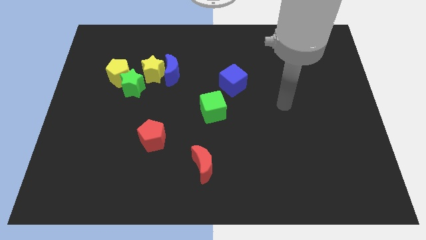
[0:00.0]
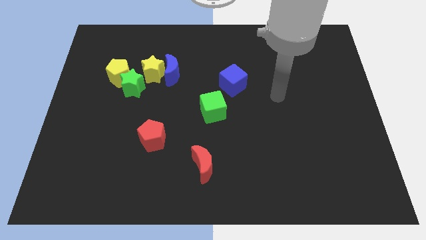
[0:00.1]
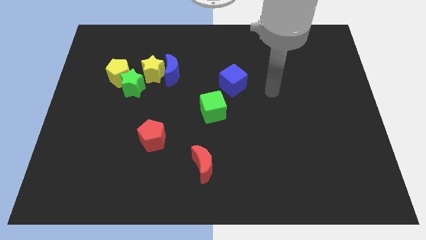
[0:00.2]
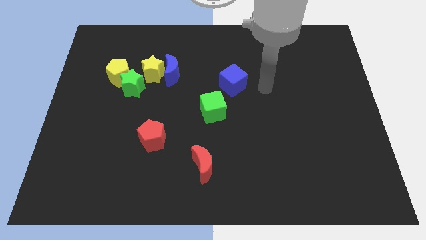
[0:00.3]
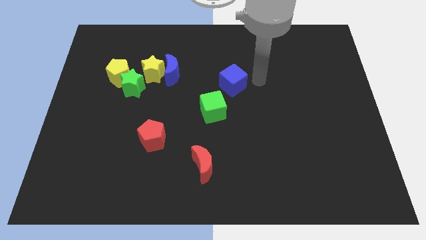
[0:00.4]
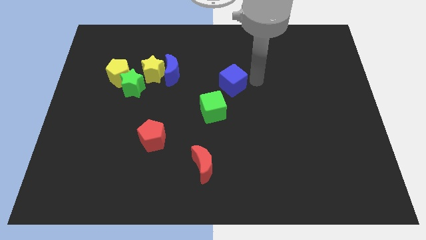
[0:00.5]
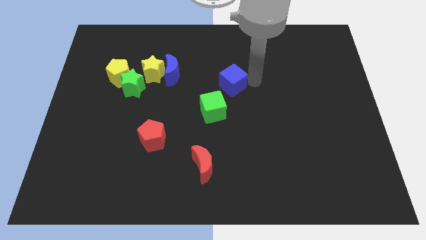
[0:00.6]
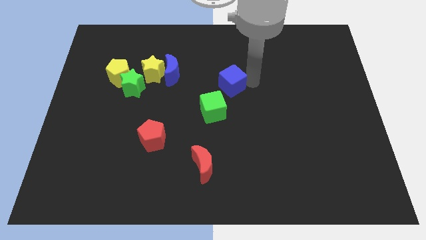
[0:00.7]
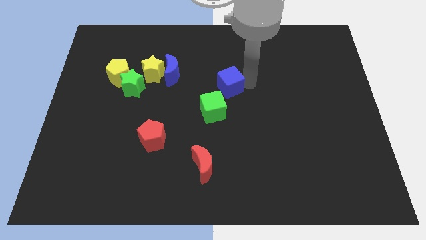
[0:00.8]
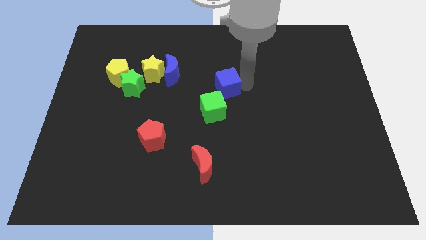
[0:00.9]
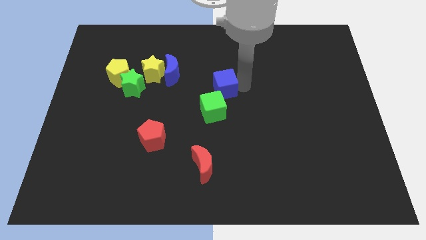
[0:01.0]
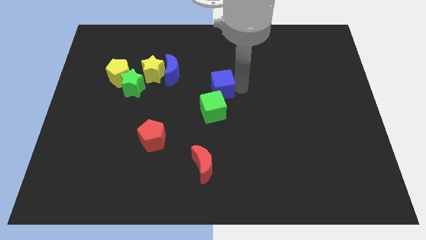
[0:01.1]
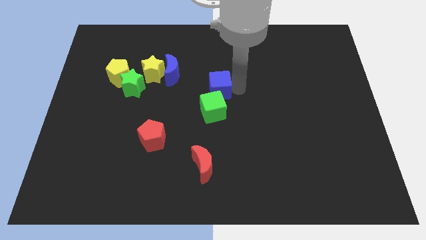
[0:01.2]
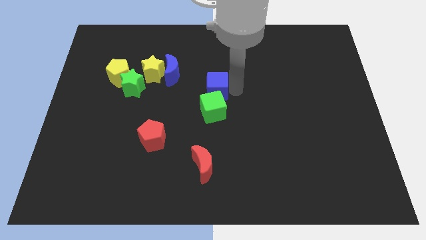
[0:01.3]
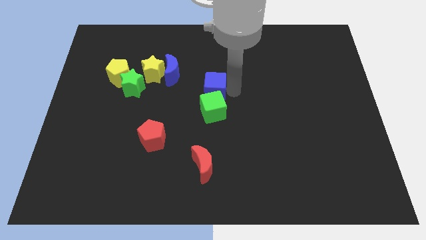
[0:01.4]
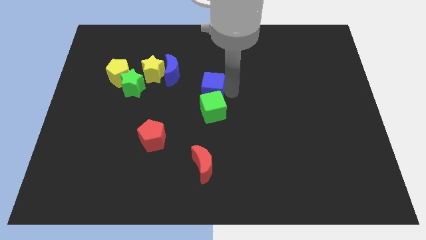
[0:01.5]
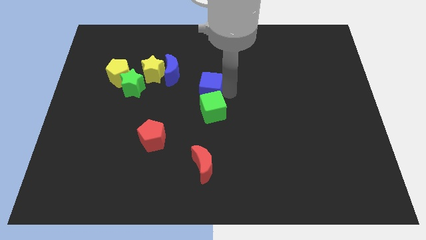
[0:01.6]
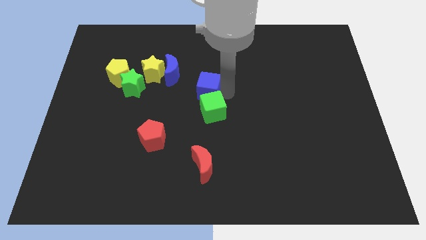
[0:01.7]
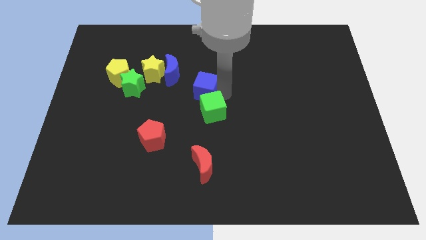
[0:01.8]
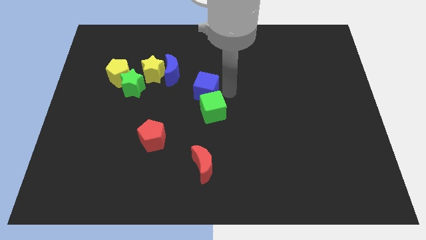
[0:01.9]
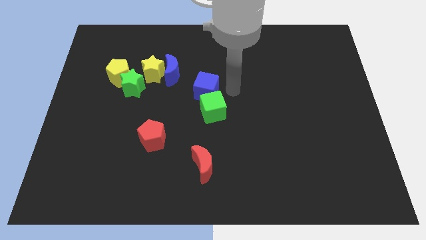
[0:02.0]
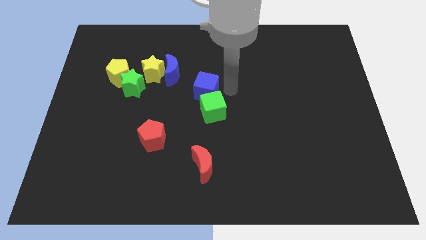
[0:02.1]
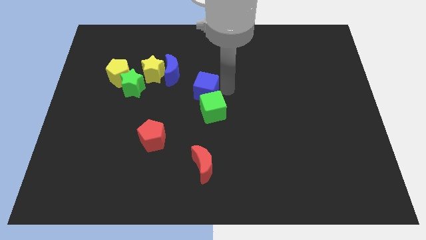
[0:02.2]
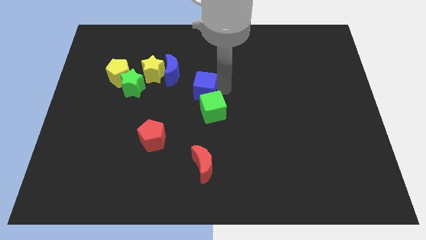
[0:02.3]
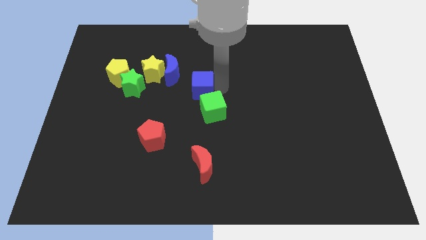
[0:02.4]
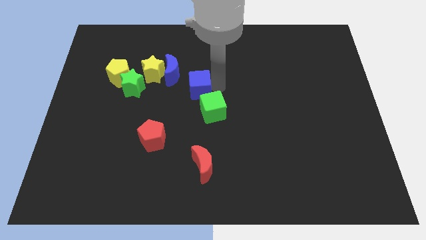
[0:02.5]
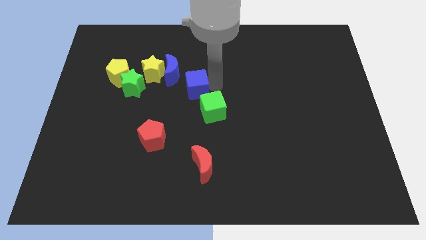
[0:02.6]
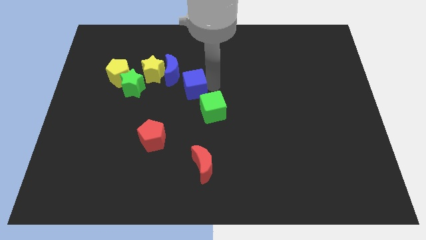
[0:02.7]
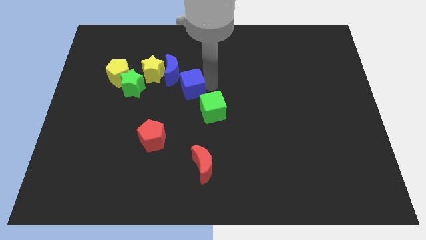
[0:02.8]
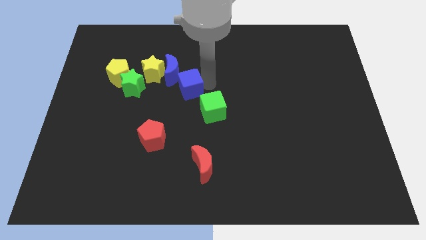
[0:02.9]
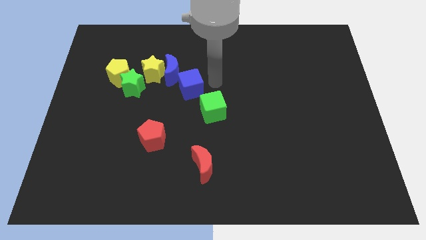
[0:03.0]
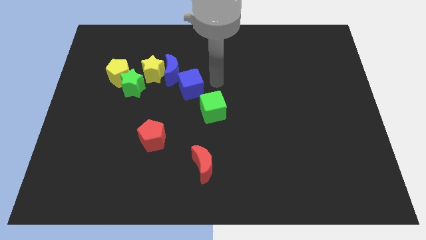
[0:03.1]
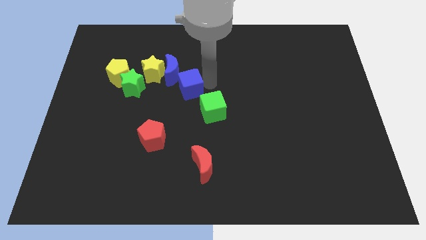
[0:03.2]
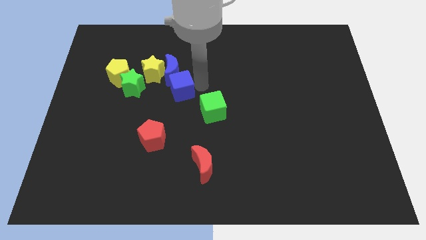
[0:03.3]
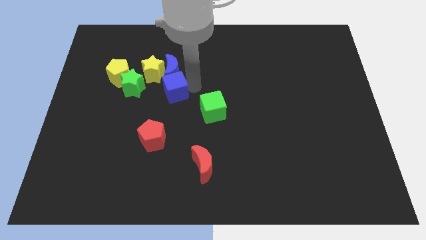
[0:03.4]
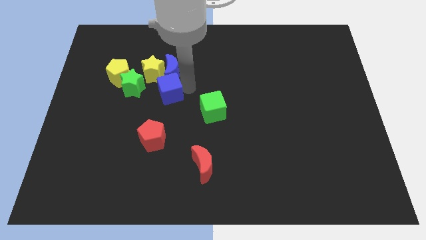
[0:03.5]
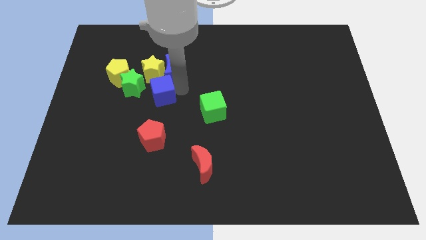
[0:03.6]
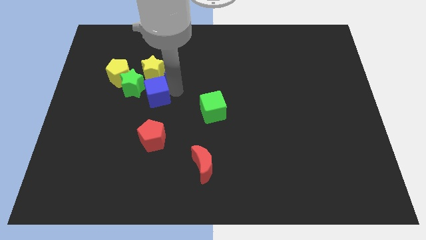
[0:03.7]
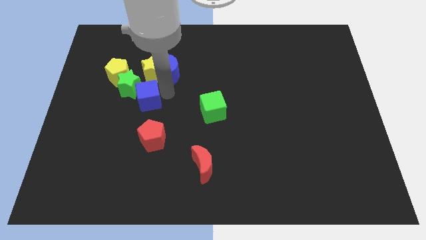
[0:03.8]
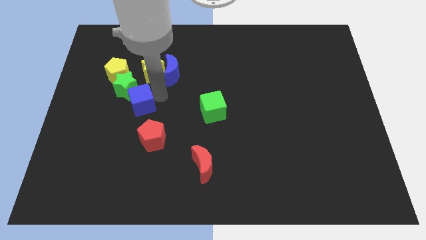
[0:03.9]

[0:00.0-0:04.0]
slide the blue cube to the left

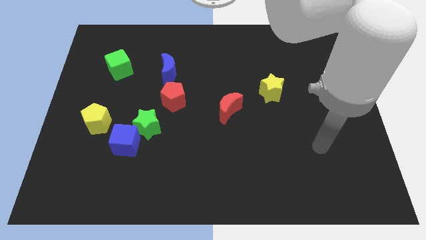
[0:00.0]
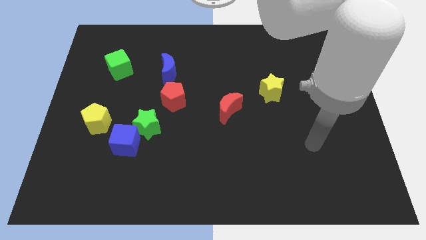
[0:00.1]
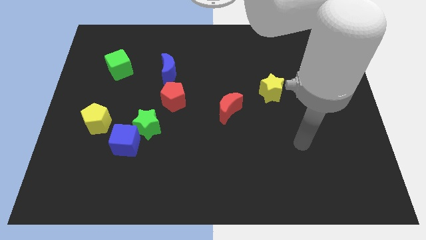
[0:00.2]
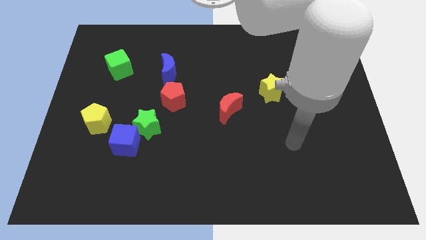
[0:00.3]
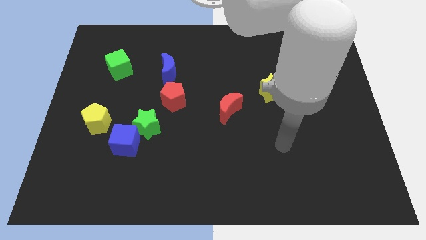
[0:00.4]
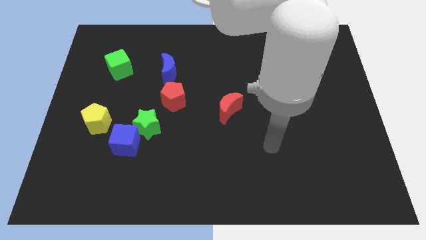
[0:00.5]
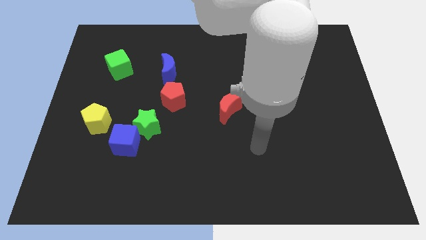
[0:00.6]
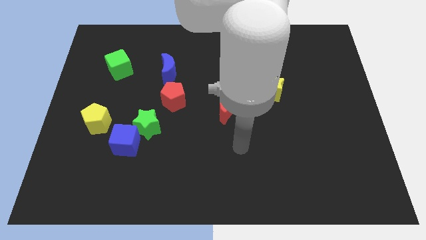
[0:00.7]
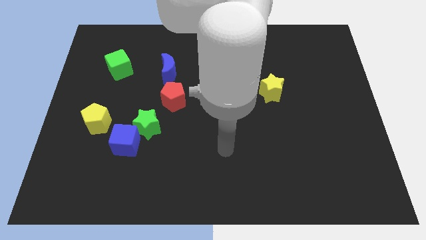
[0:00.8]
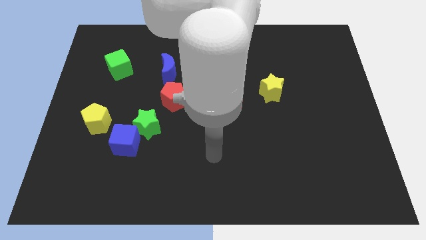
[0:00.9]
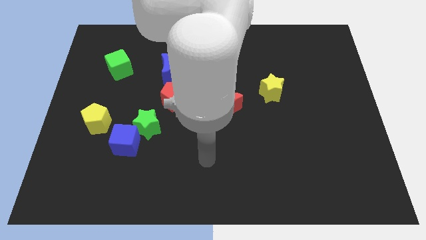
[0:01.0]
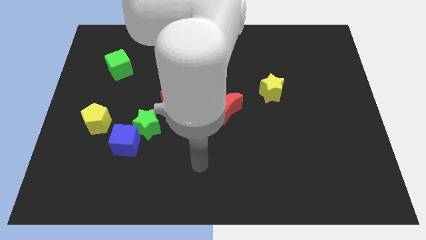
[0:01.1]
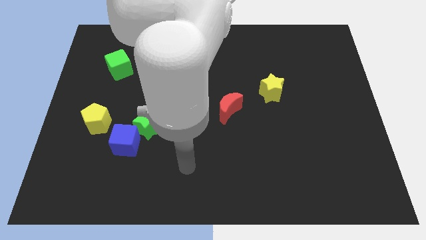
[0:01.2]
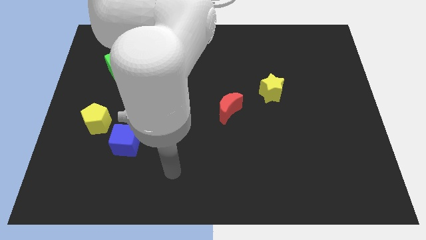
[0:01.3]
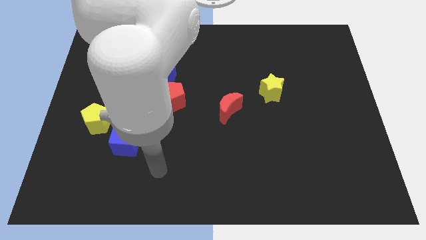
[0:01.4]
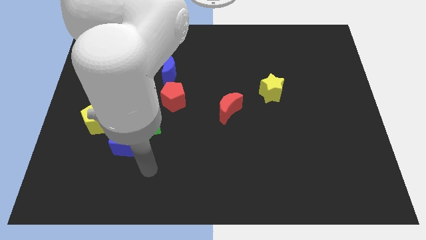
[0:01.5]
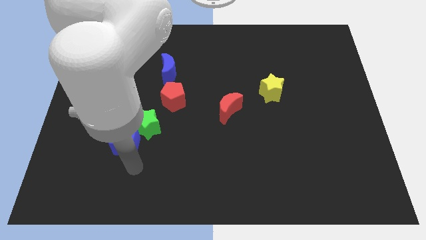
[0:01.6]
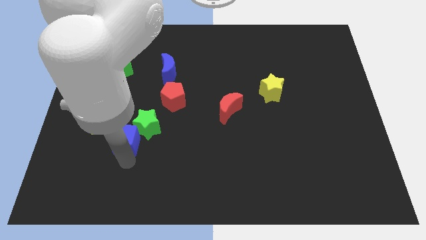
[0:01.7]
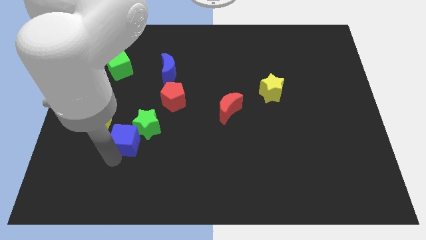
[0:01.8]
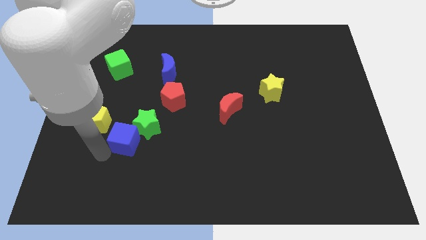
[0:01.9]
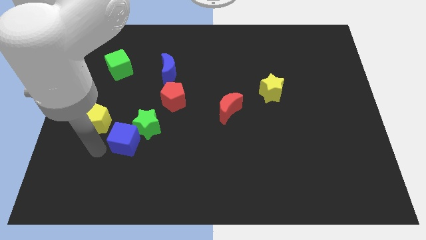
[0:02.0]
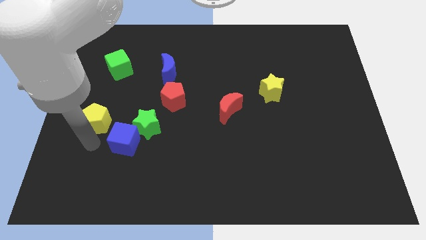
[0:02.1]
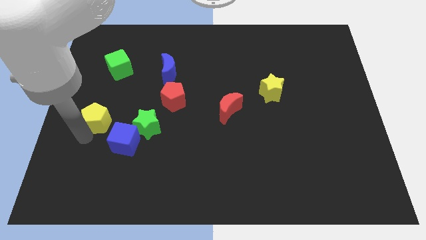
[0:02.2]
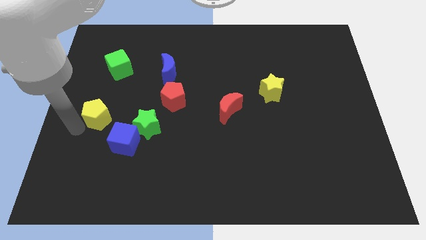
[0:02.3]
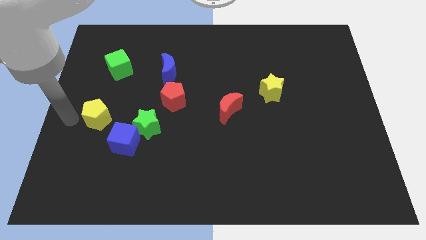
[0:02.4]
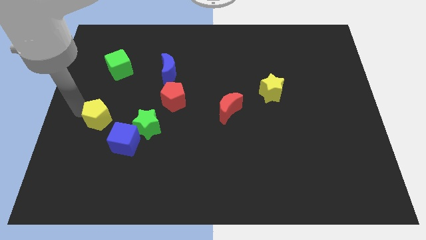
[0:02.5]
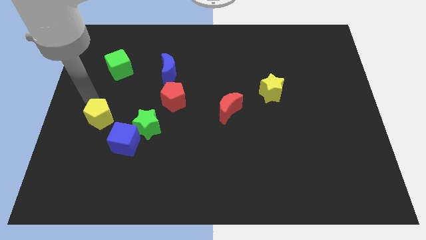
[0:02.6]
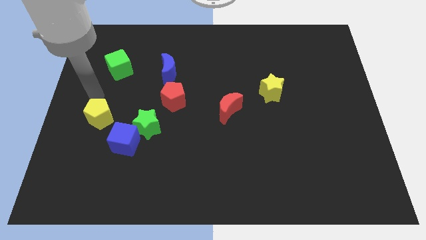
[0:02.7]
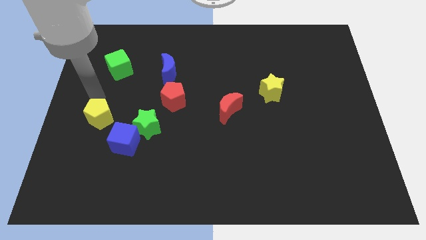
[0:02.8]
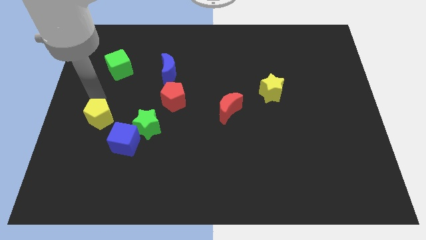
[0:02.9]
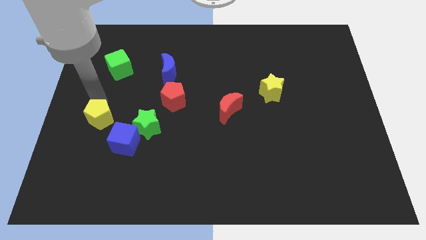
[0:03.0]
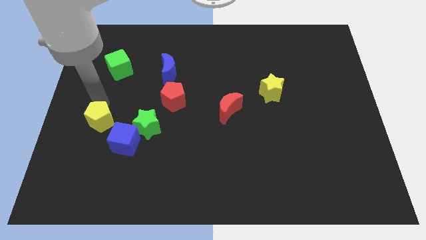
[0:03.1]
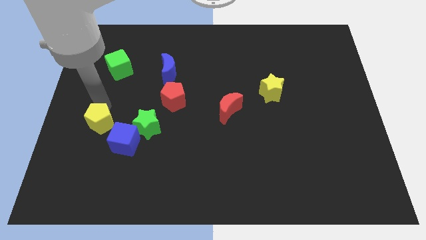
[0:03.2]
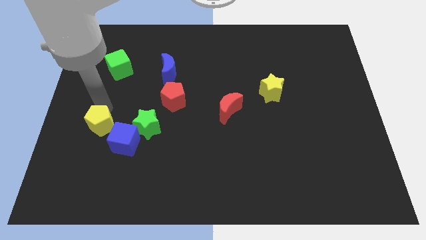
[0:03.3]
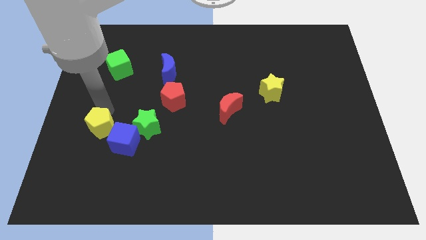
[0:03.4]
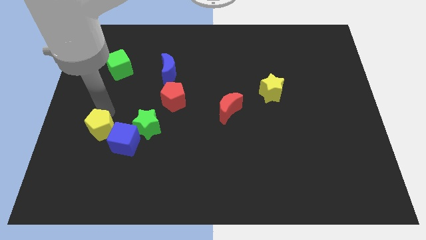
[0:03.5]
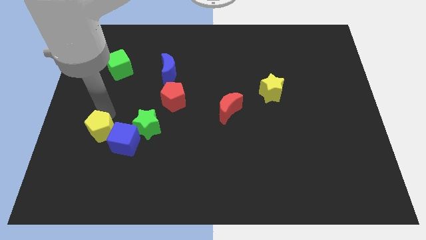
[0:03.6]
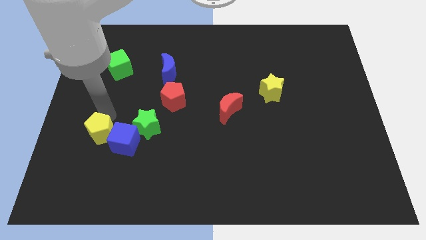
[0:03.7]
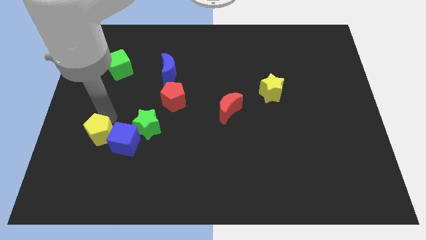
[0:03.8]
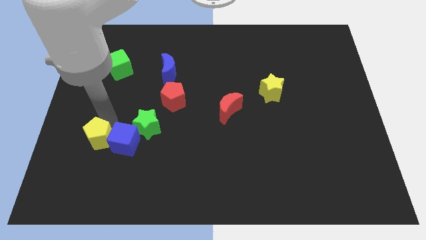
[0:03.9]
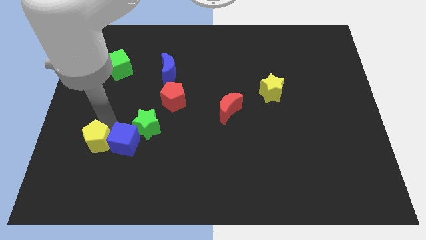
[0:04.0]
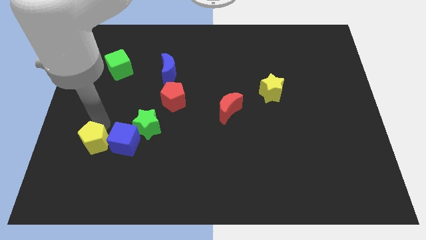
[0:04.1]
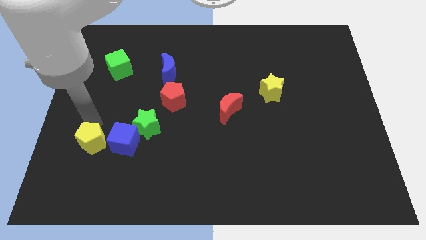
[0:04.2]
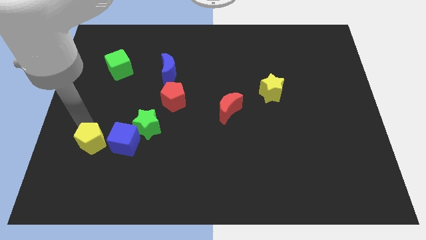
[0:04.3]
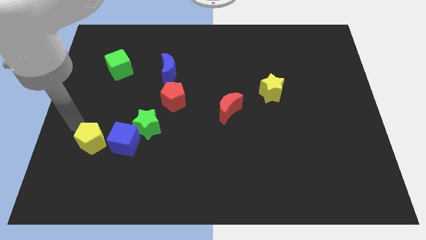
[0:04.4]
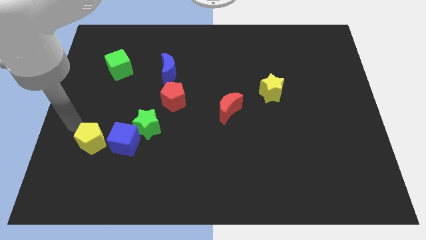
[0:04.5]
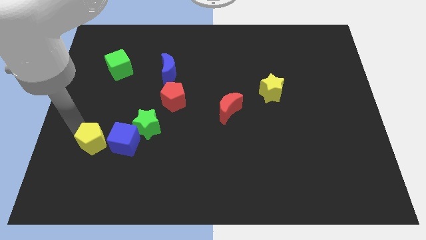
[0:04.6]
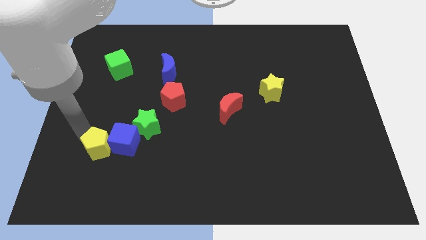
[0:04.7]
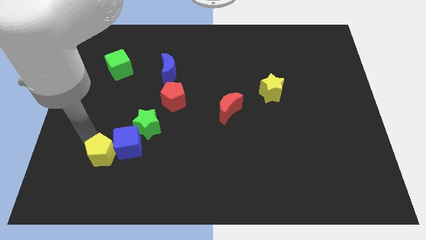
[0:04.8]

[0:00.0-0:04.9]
move the yellow pentagon a little downwards and then to the right
